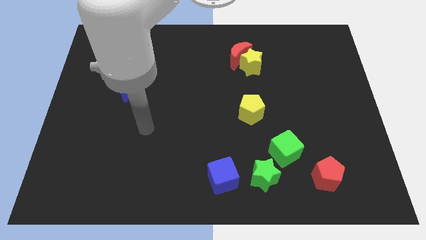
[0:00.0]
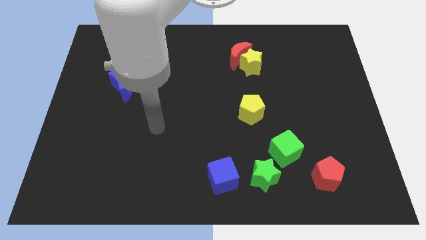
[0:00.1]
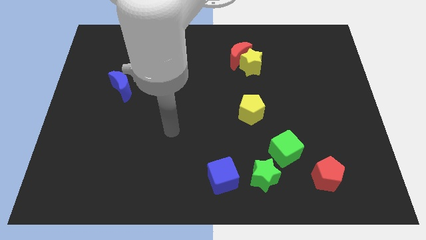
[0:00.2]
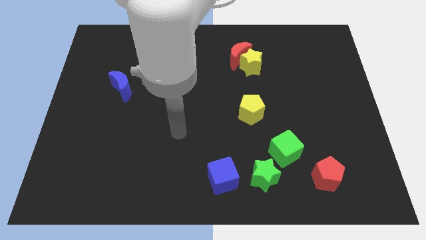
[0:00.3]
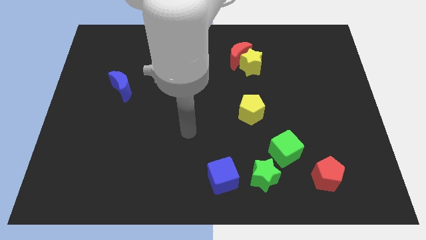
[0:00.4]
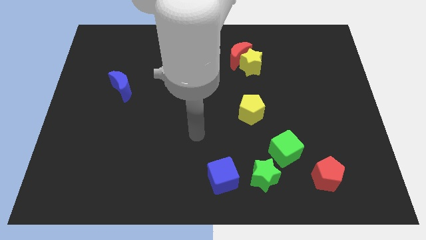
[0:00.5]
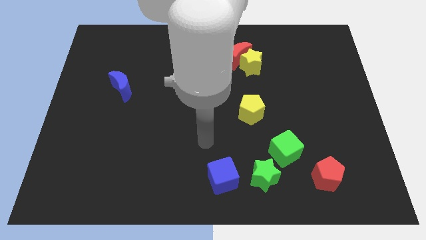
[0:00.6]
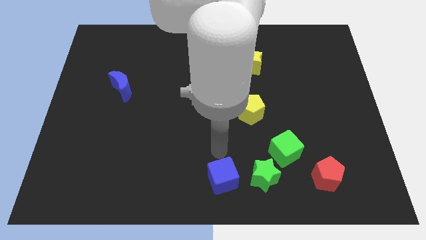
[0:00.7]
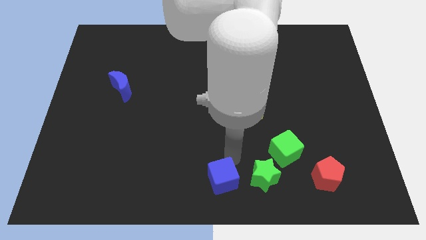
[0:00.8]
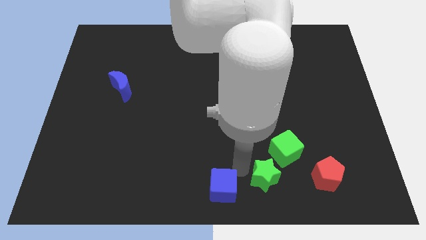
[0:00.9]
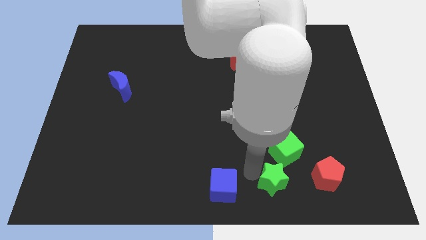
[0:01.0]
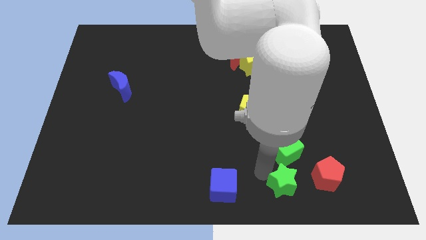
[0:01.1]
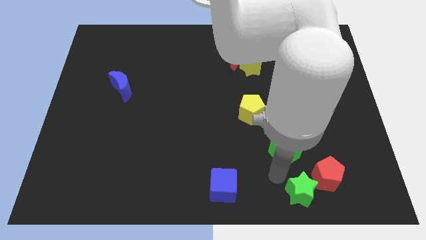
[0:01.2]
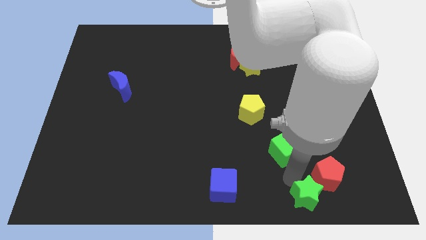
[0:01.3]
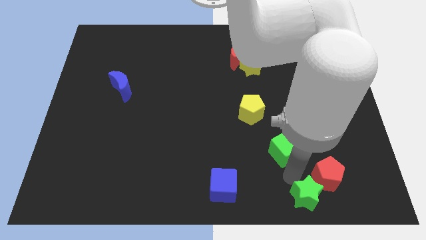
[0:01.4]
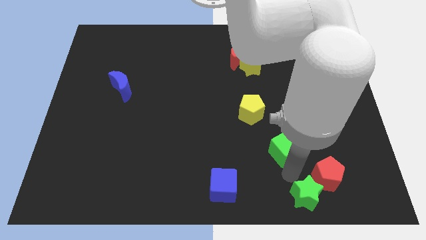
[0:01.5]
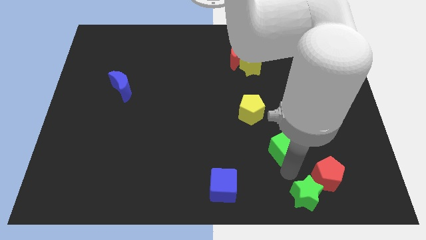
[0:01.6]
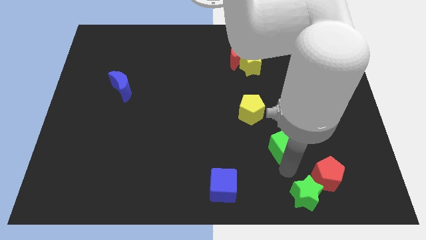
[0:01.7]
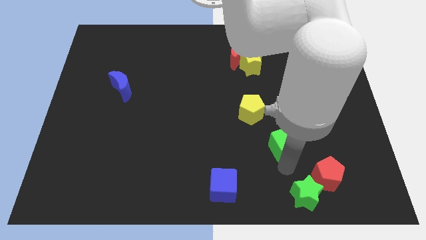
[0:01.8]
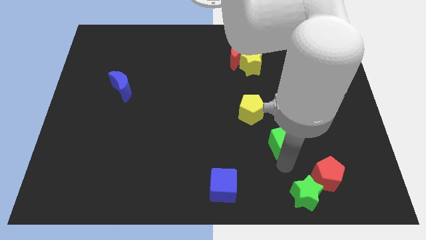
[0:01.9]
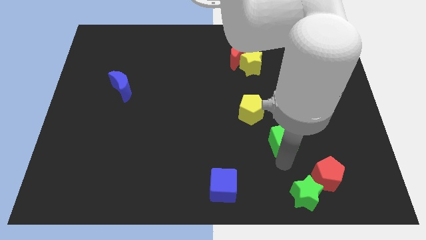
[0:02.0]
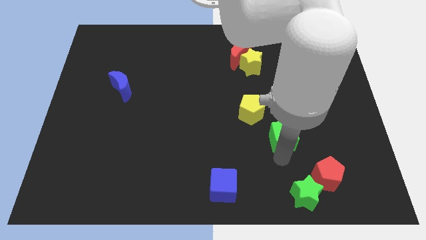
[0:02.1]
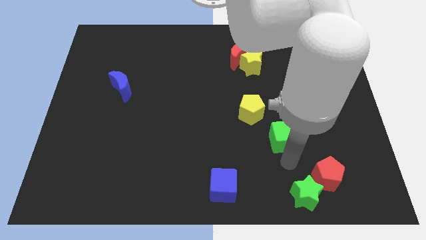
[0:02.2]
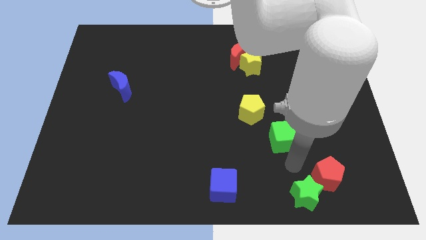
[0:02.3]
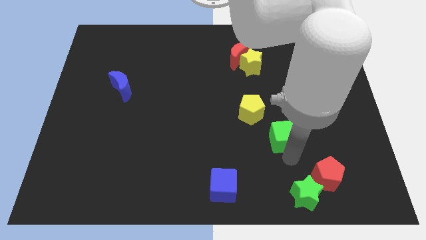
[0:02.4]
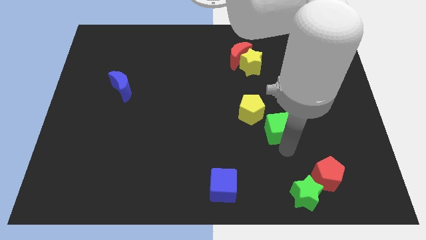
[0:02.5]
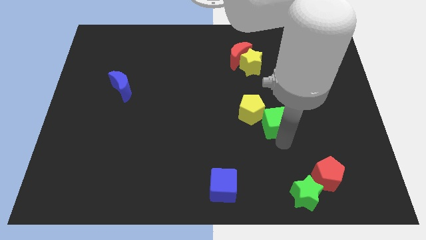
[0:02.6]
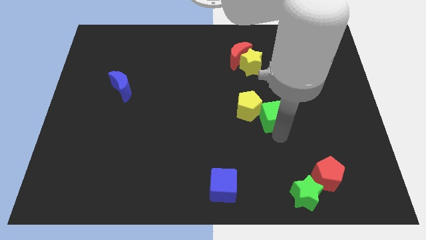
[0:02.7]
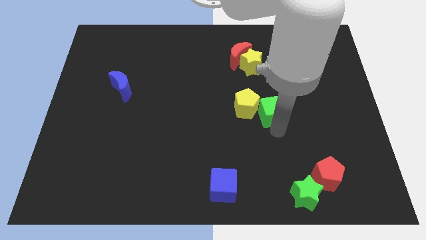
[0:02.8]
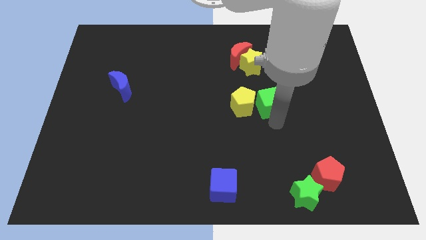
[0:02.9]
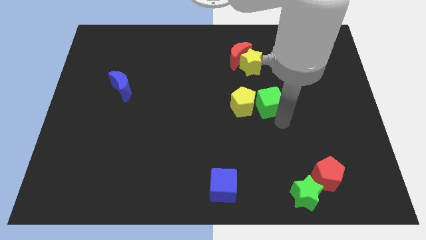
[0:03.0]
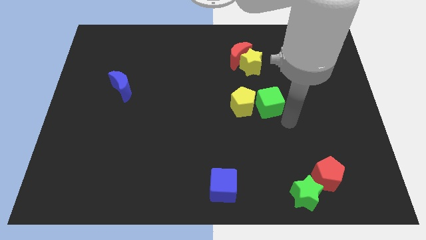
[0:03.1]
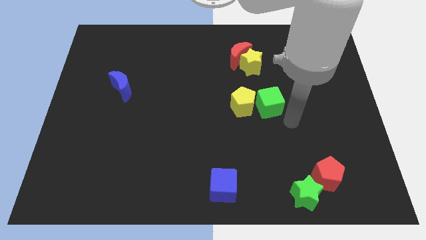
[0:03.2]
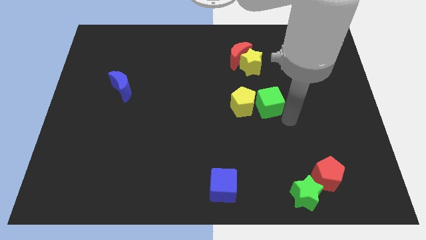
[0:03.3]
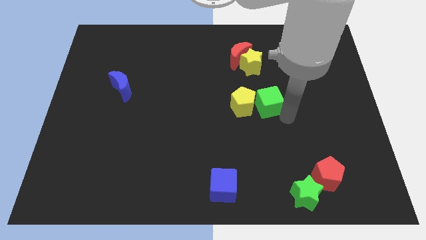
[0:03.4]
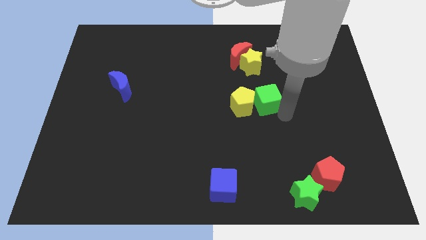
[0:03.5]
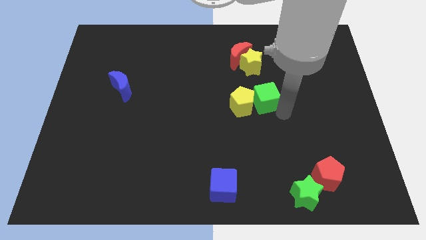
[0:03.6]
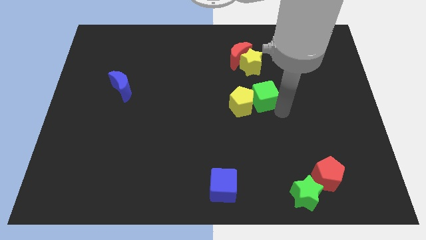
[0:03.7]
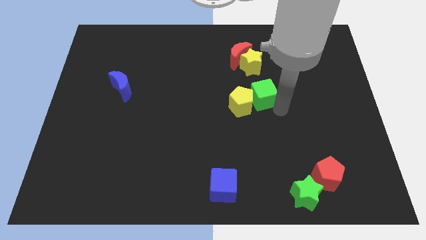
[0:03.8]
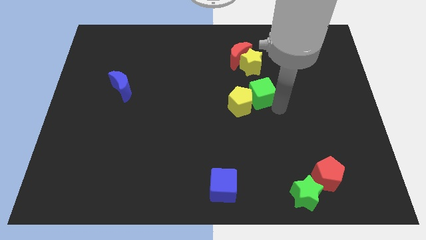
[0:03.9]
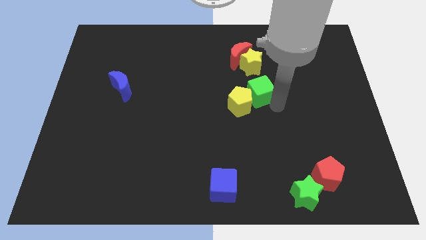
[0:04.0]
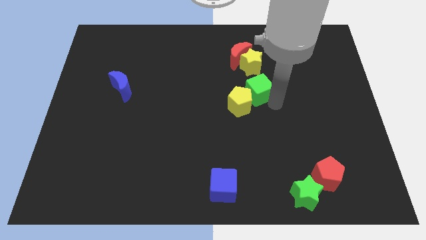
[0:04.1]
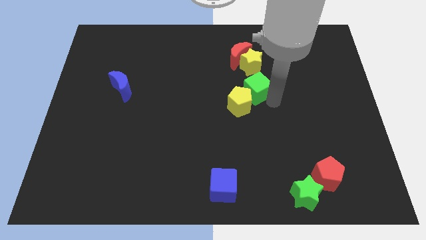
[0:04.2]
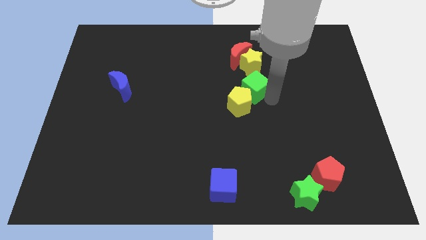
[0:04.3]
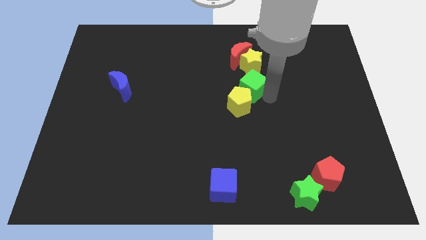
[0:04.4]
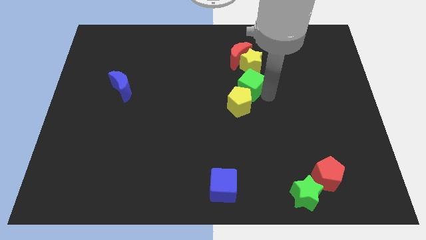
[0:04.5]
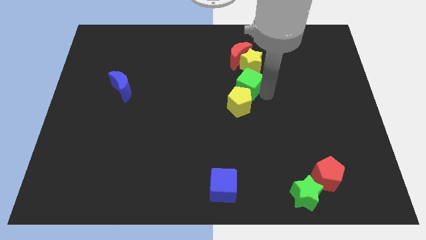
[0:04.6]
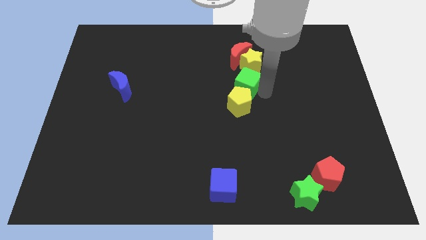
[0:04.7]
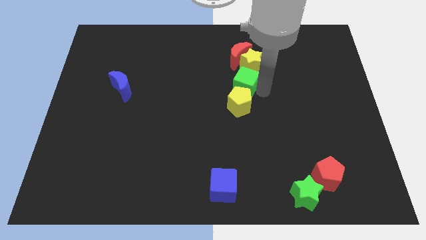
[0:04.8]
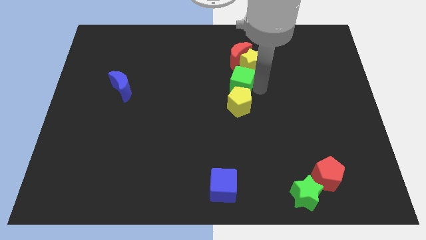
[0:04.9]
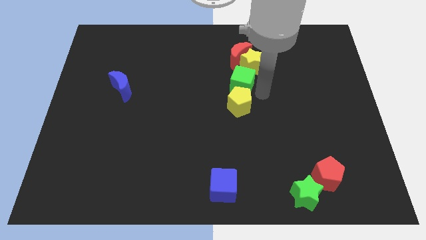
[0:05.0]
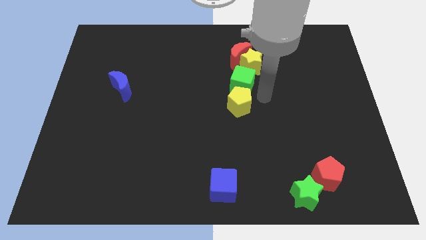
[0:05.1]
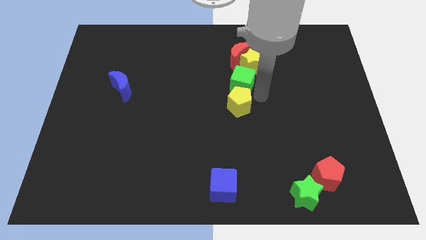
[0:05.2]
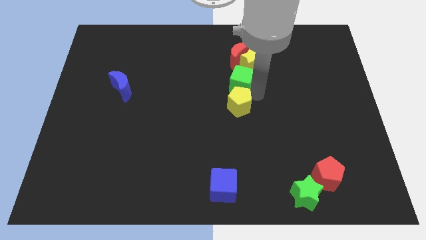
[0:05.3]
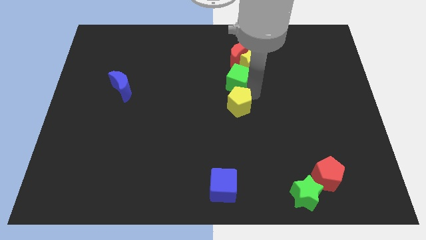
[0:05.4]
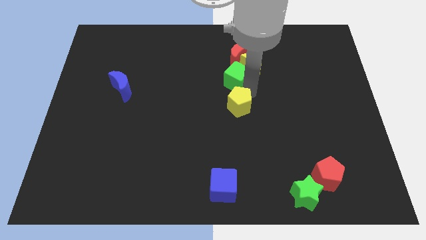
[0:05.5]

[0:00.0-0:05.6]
push the green cube to the left side of the yellow star

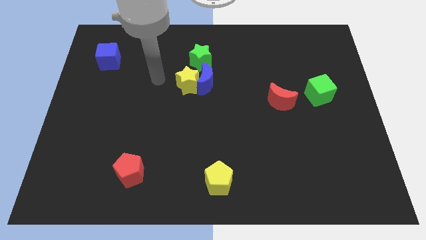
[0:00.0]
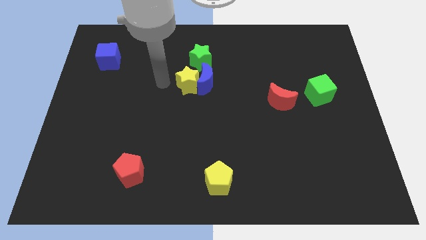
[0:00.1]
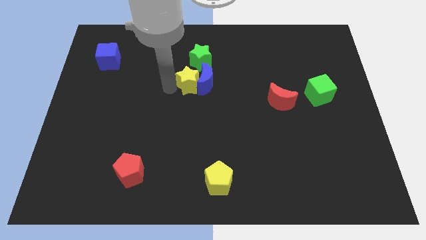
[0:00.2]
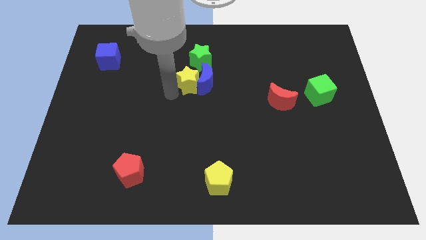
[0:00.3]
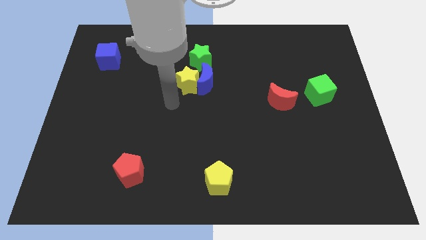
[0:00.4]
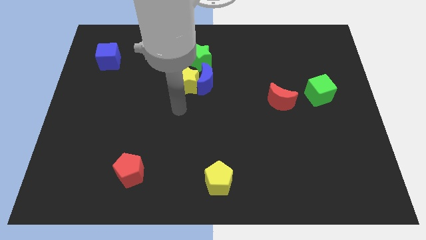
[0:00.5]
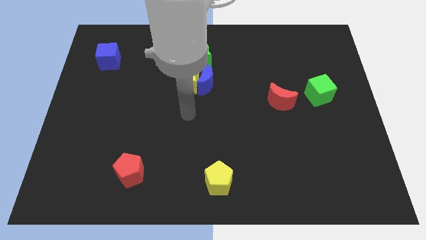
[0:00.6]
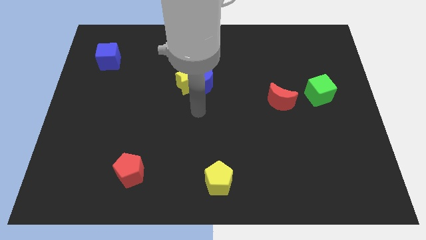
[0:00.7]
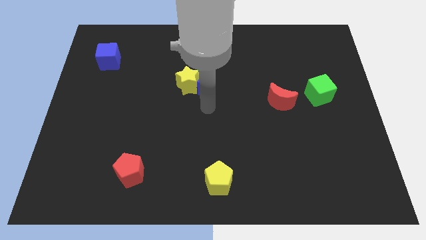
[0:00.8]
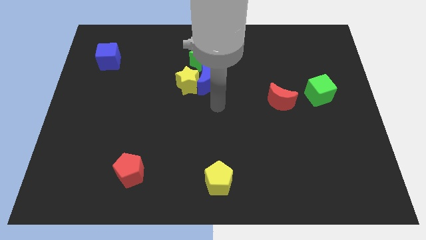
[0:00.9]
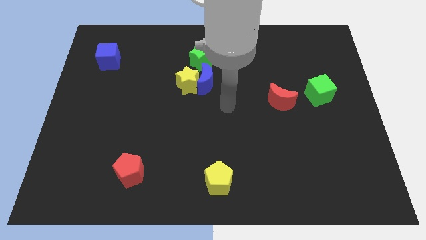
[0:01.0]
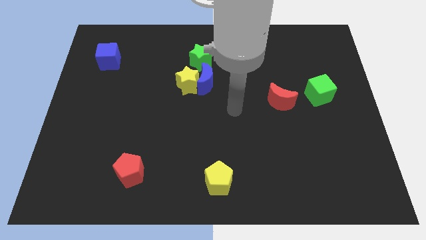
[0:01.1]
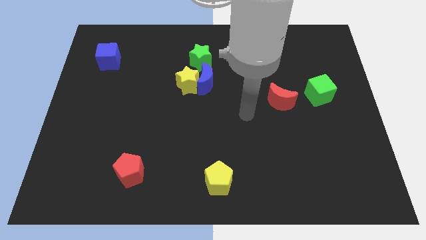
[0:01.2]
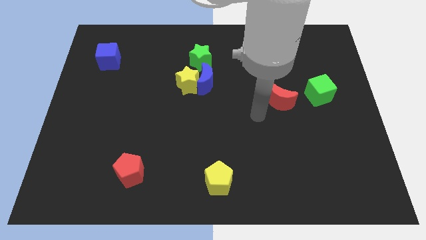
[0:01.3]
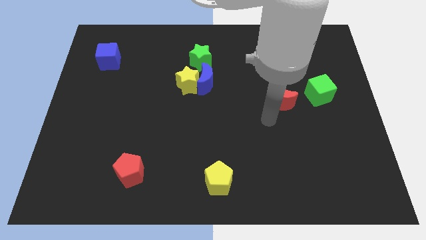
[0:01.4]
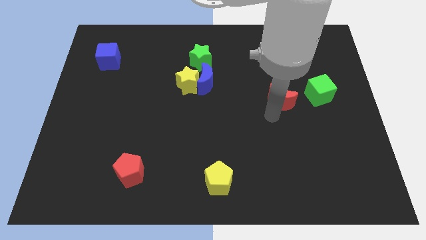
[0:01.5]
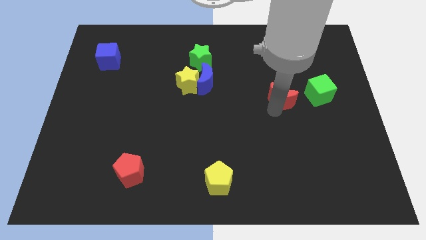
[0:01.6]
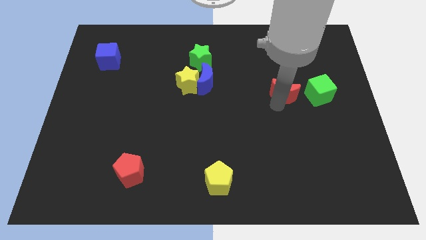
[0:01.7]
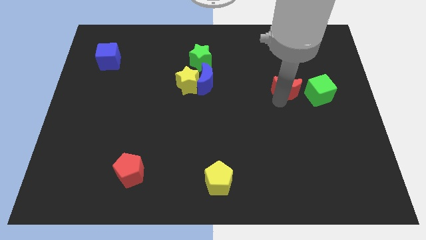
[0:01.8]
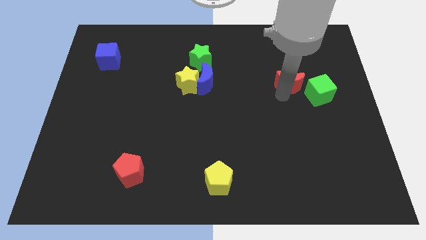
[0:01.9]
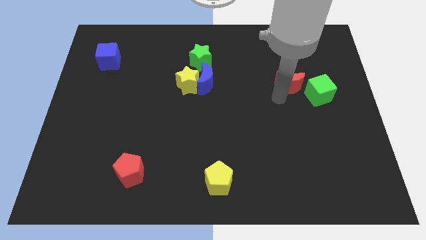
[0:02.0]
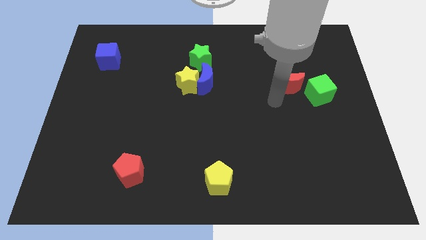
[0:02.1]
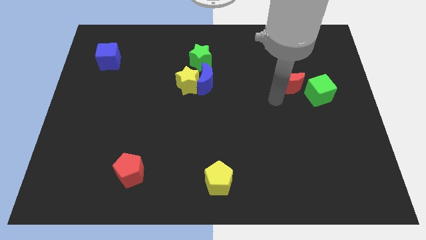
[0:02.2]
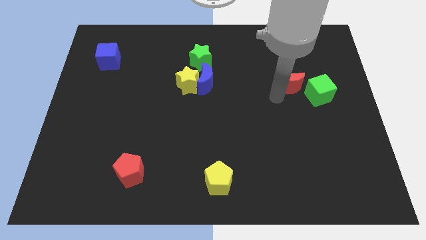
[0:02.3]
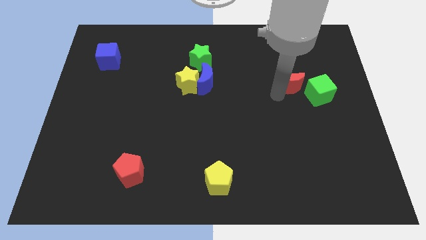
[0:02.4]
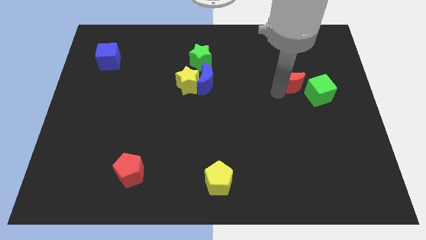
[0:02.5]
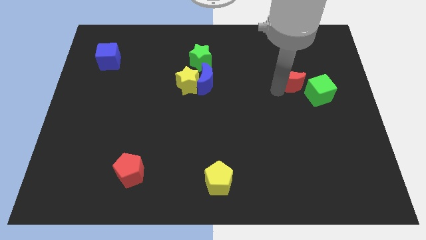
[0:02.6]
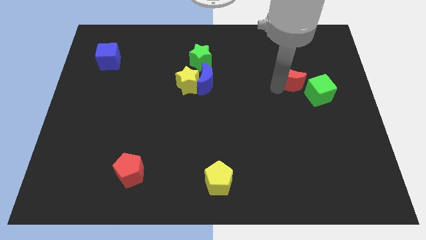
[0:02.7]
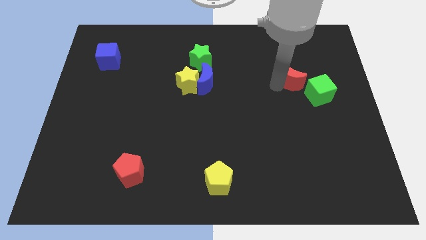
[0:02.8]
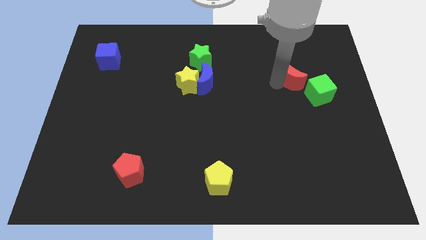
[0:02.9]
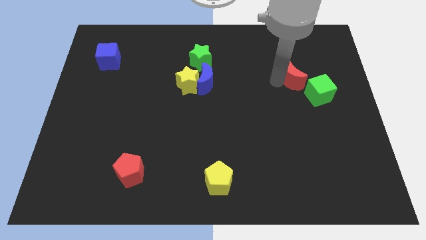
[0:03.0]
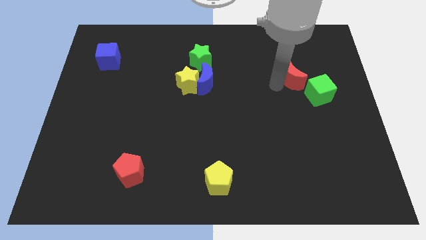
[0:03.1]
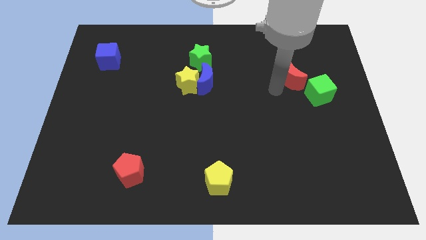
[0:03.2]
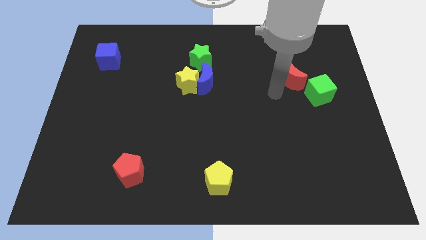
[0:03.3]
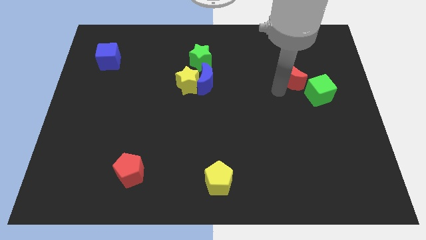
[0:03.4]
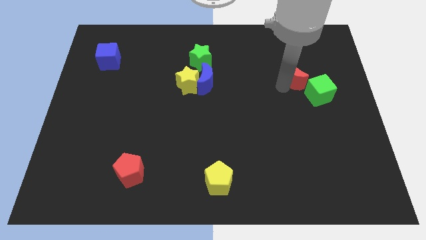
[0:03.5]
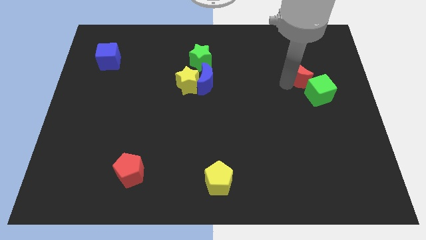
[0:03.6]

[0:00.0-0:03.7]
move the red moon above the green cube
